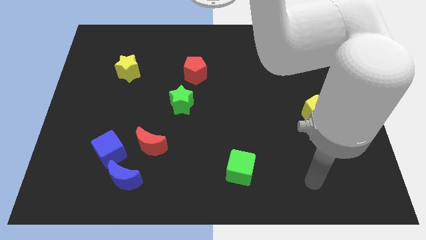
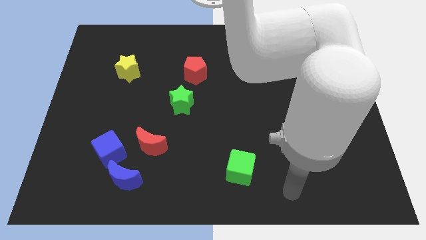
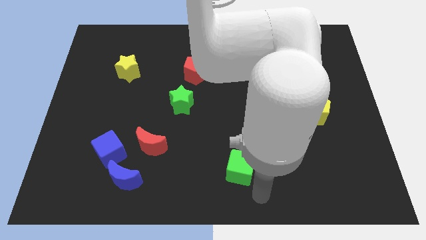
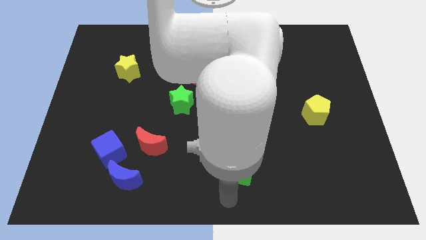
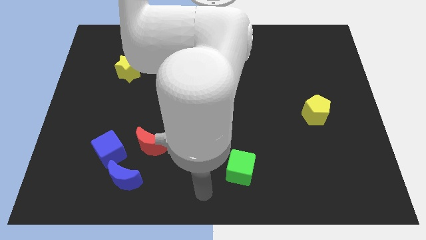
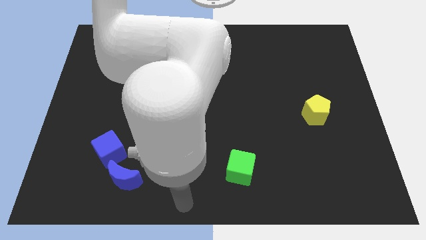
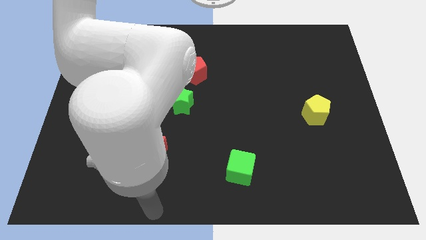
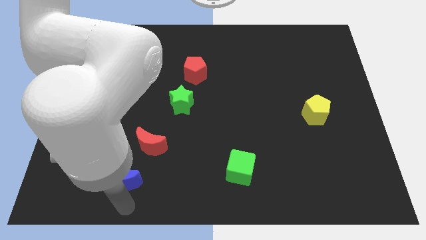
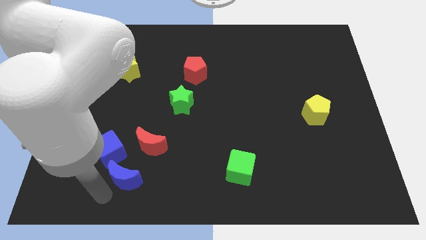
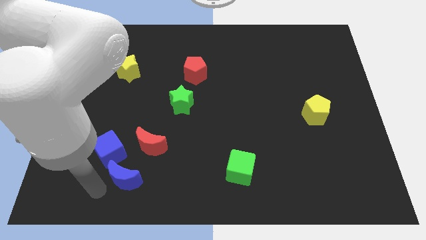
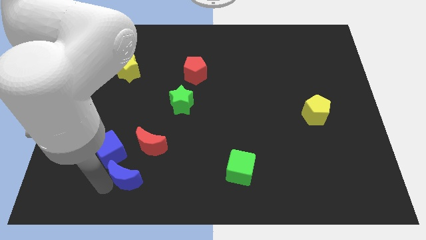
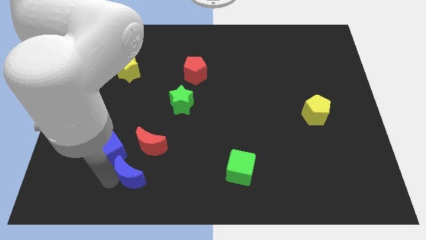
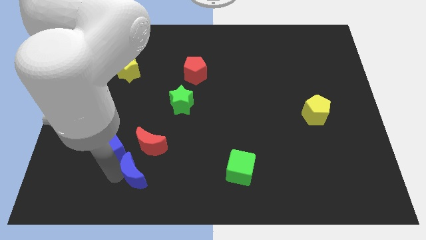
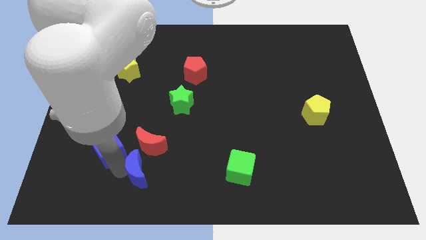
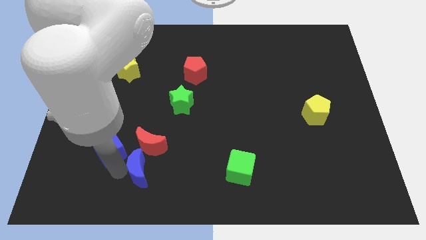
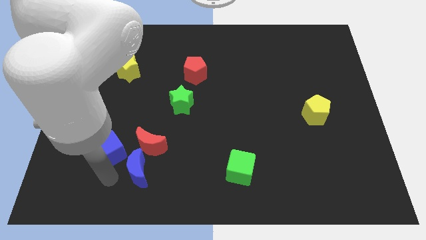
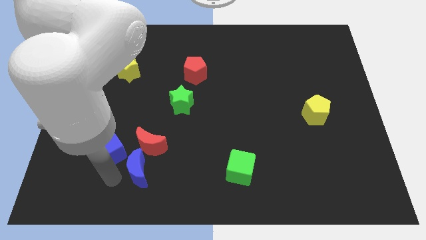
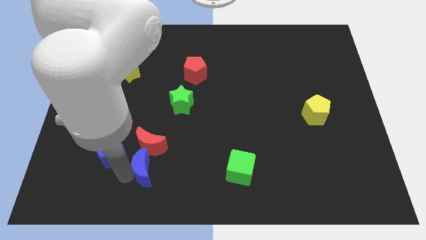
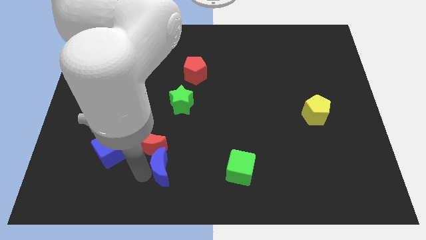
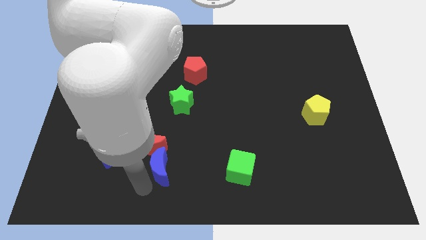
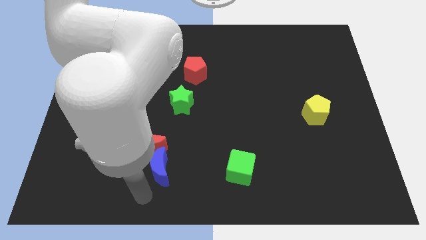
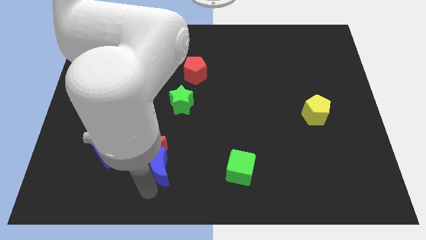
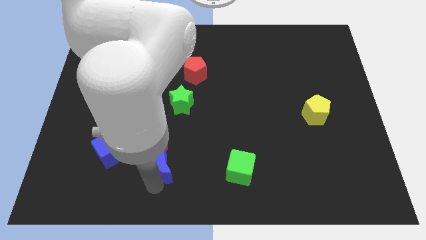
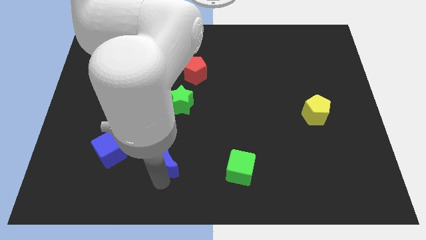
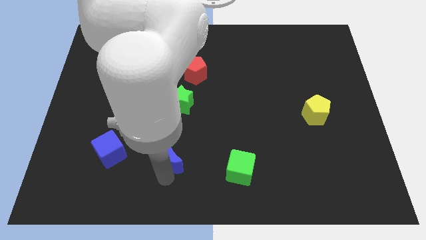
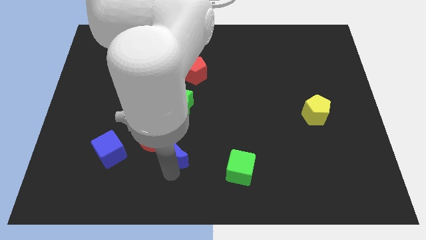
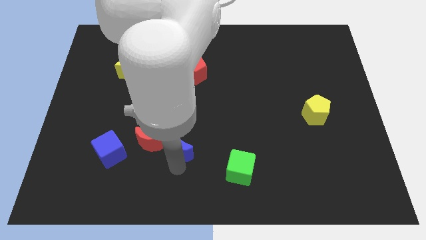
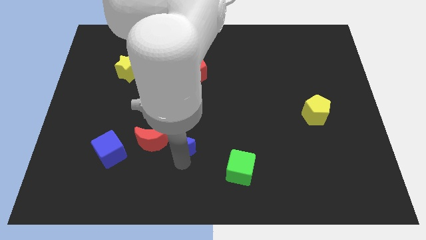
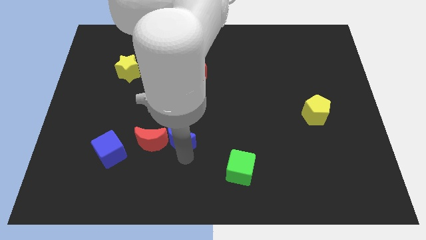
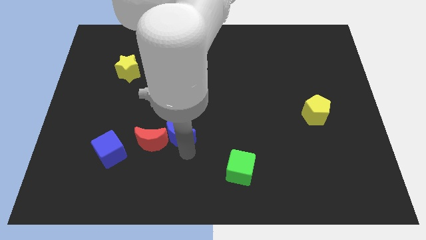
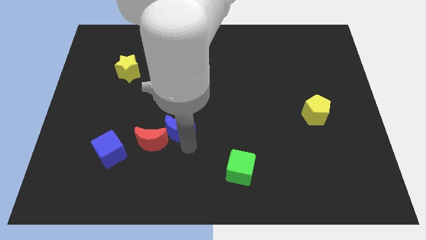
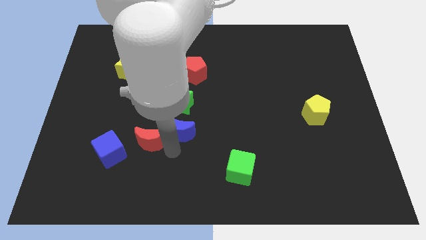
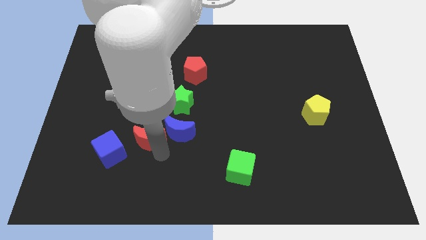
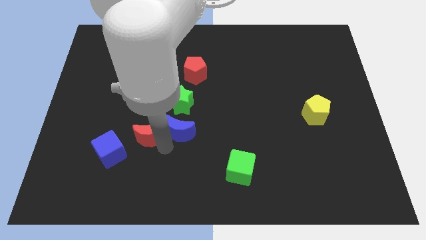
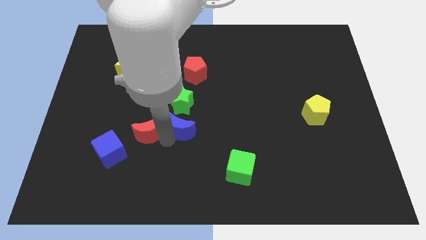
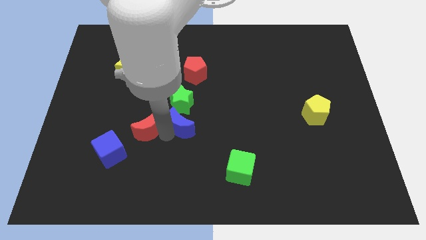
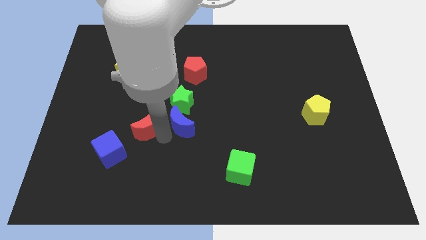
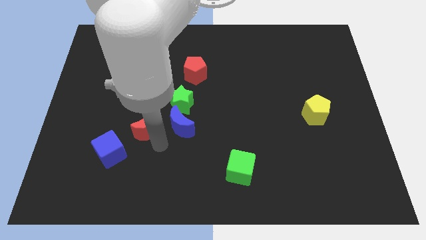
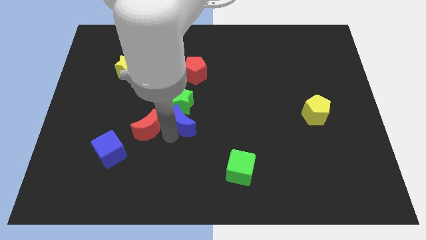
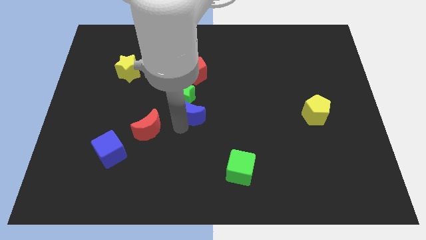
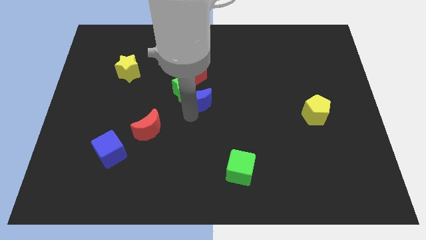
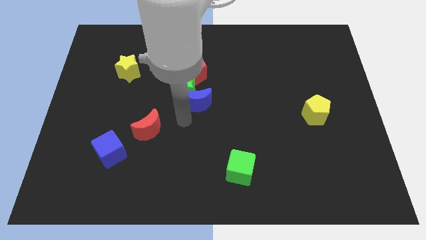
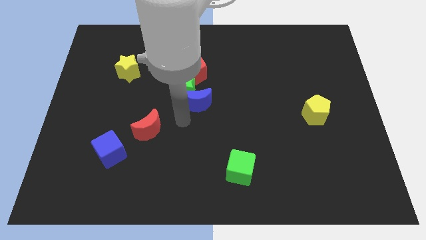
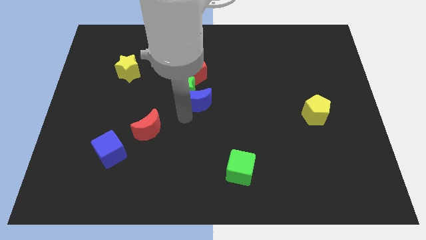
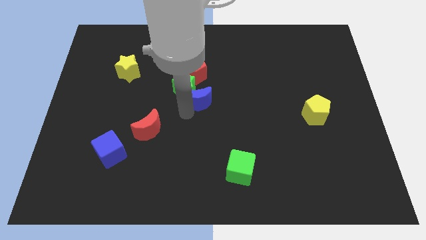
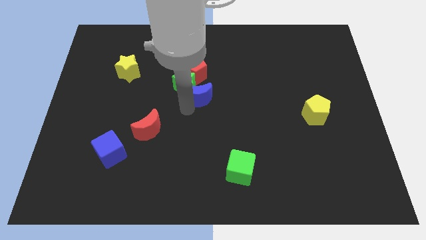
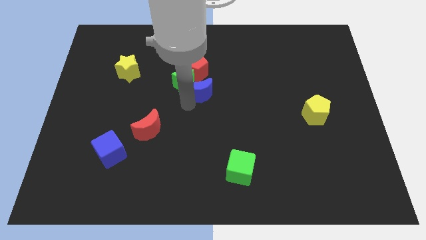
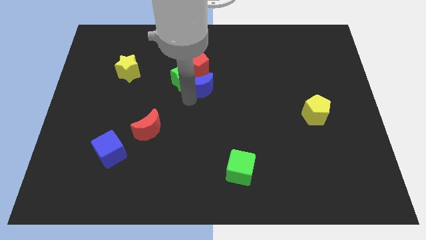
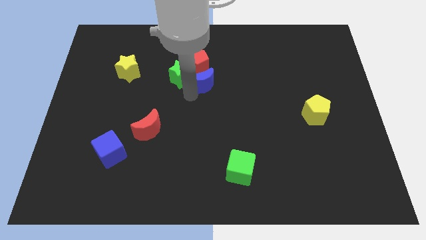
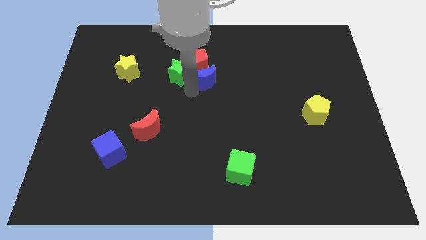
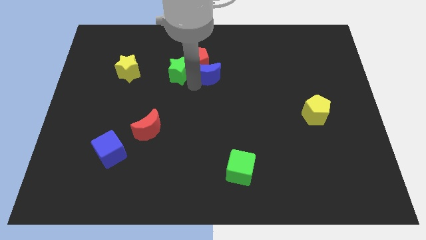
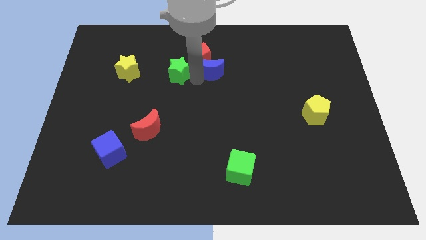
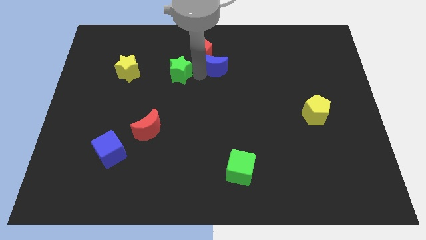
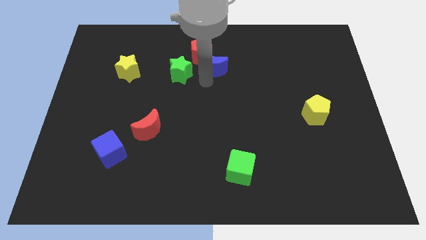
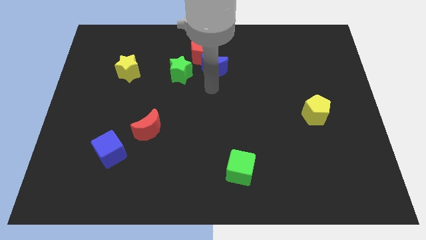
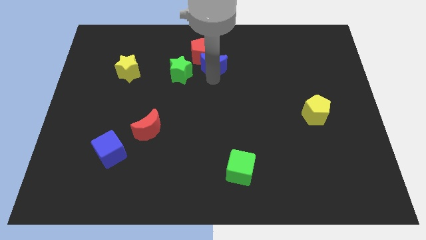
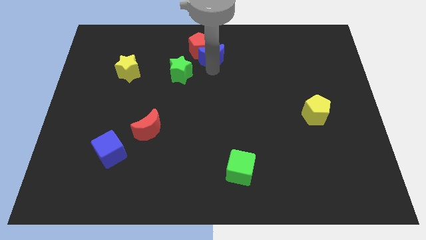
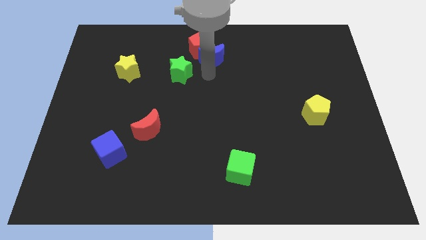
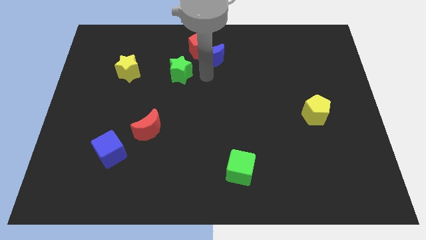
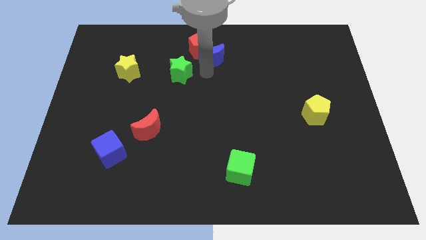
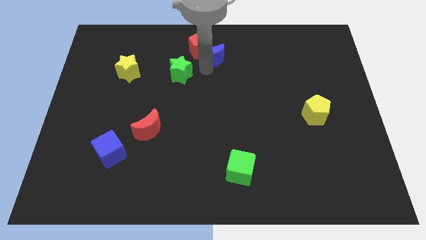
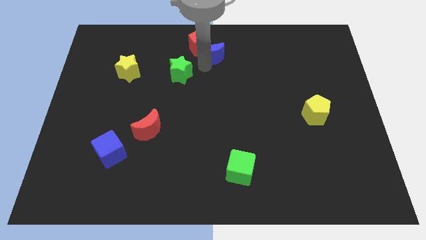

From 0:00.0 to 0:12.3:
push the blue moon to the top
